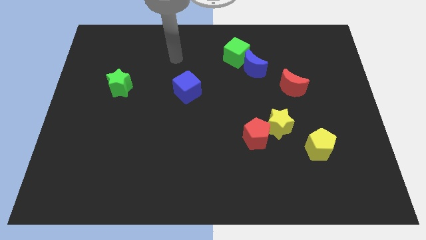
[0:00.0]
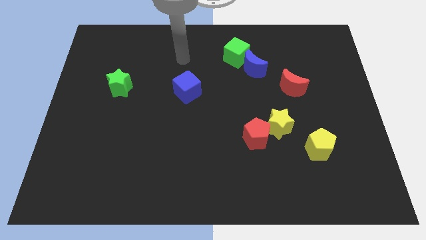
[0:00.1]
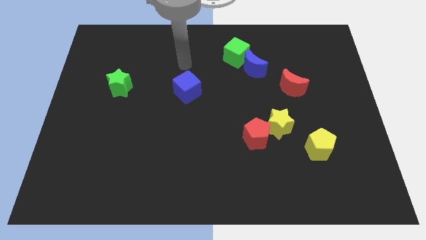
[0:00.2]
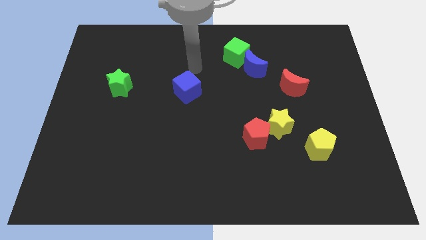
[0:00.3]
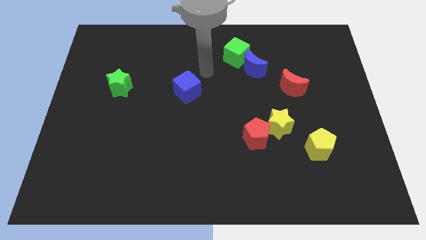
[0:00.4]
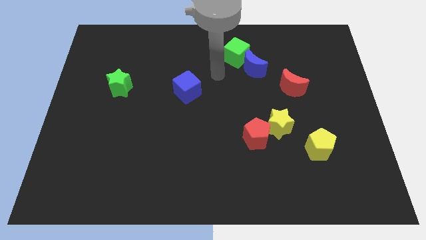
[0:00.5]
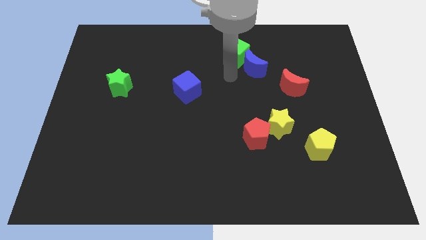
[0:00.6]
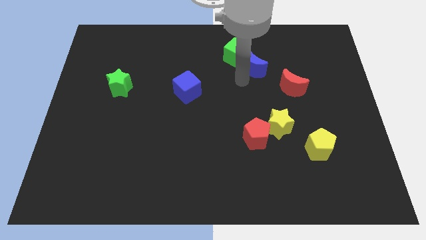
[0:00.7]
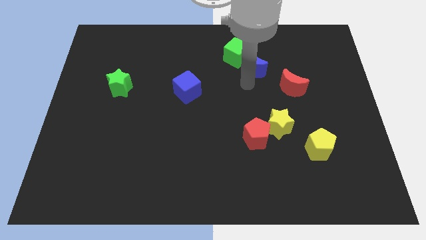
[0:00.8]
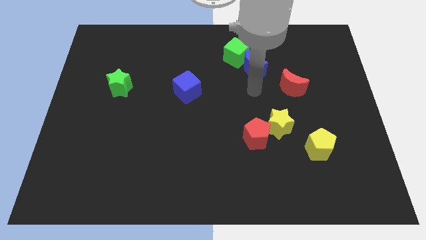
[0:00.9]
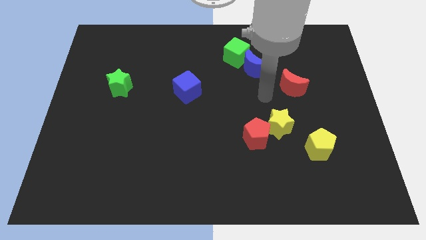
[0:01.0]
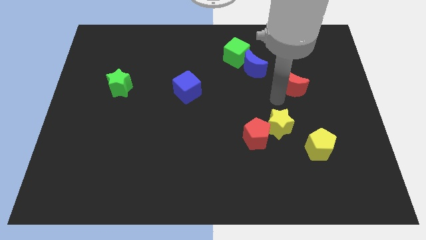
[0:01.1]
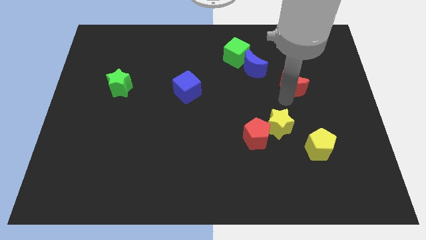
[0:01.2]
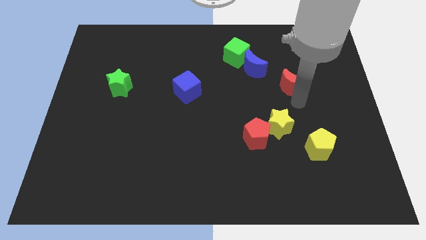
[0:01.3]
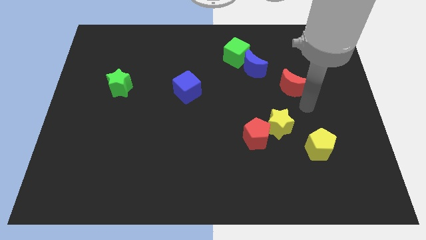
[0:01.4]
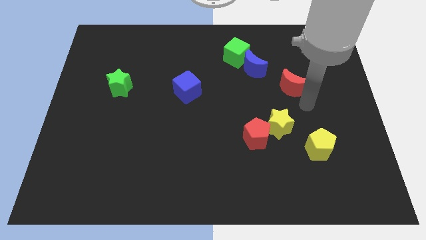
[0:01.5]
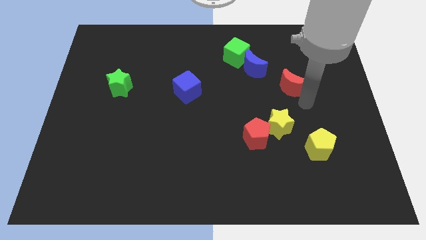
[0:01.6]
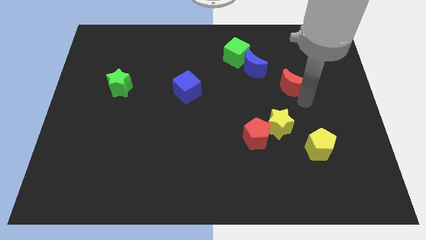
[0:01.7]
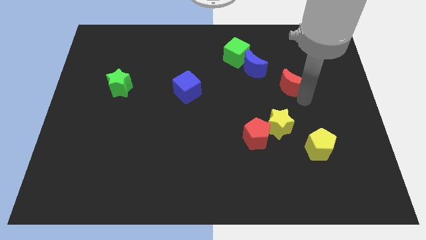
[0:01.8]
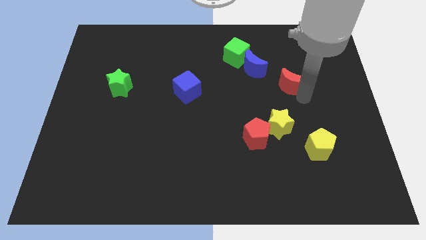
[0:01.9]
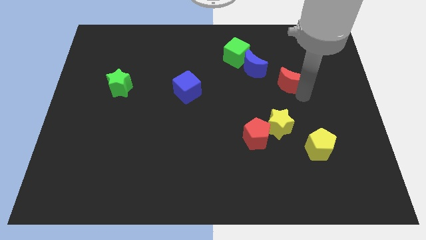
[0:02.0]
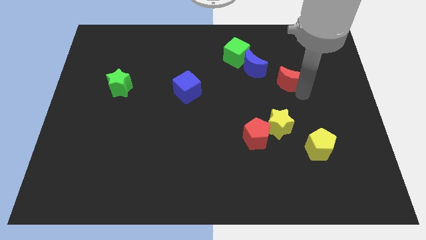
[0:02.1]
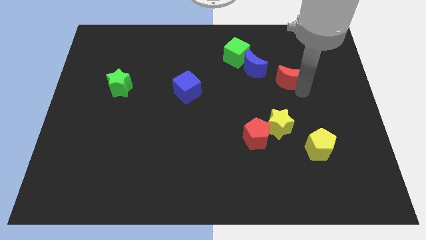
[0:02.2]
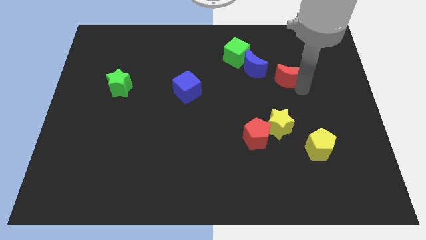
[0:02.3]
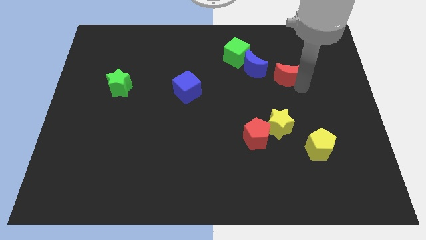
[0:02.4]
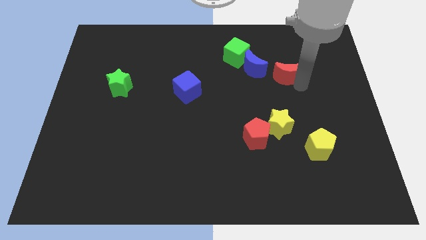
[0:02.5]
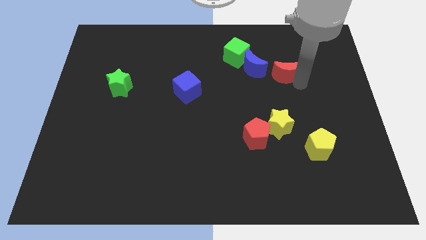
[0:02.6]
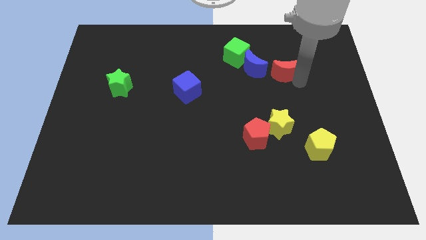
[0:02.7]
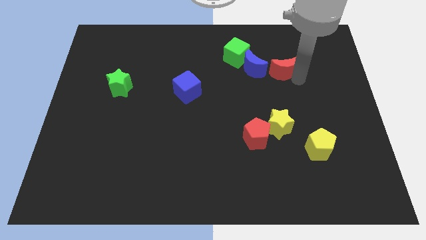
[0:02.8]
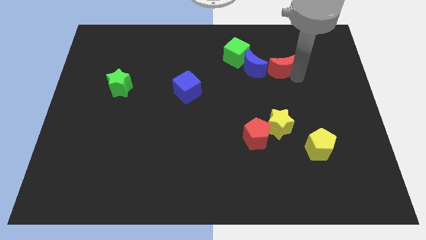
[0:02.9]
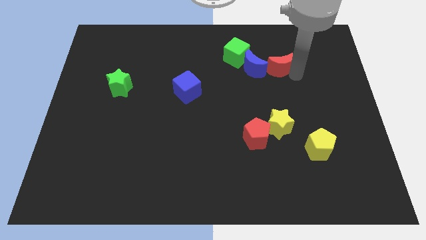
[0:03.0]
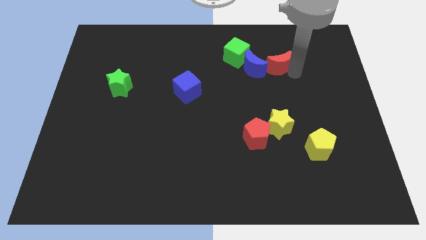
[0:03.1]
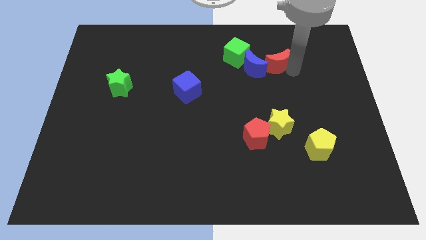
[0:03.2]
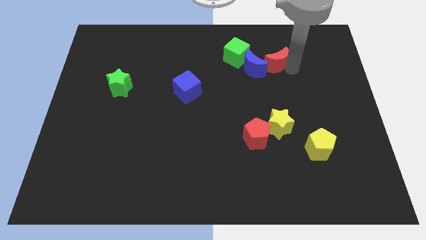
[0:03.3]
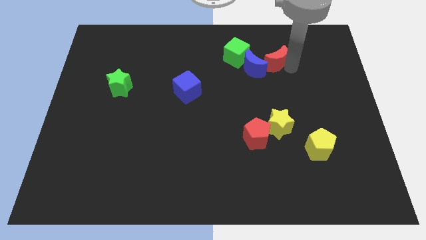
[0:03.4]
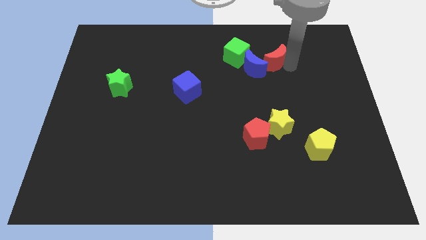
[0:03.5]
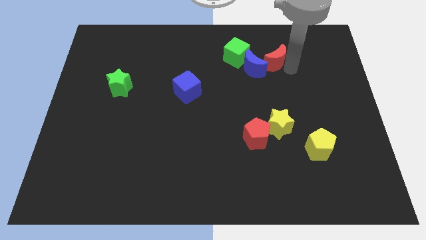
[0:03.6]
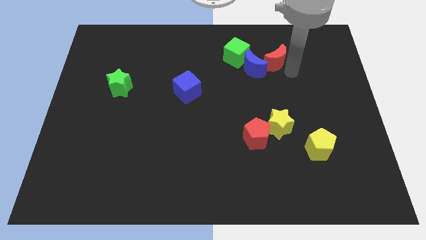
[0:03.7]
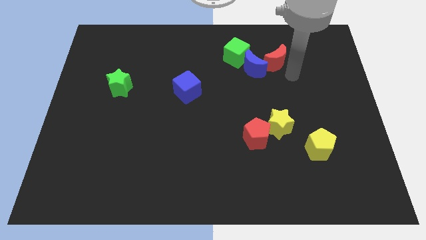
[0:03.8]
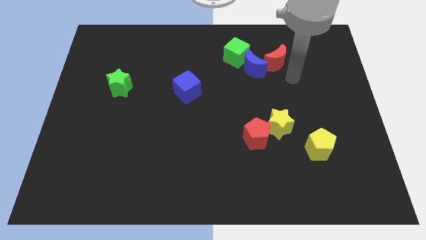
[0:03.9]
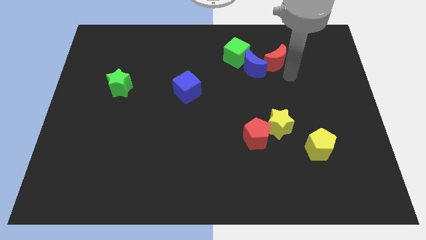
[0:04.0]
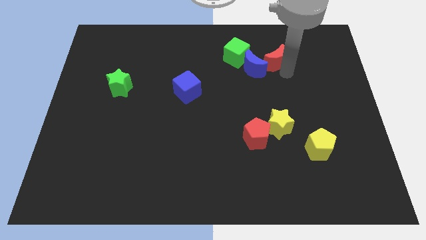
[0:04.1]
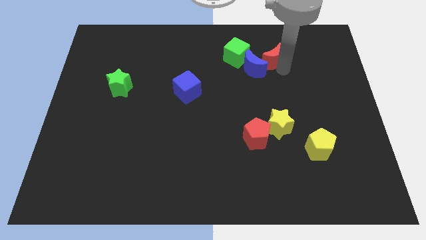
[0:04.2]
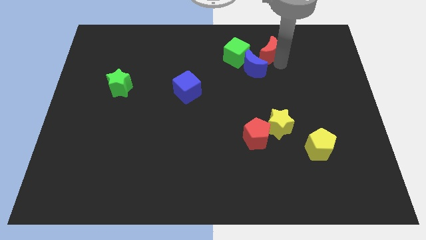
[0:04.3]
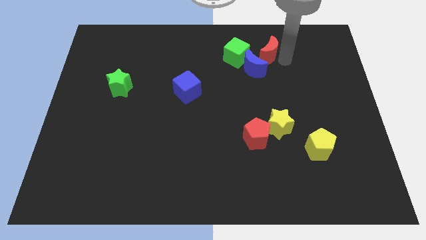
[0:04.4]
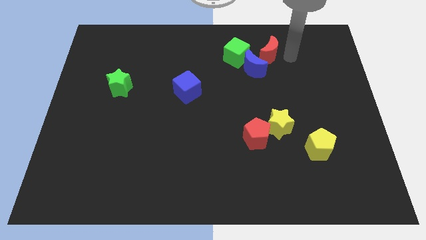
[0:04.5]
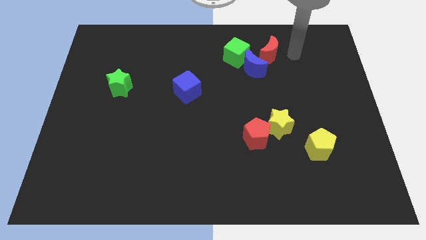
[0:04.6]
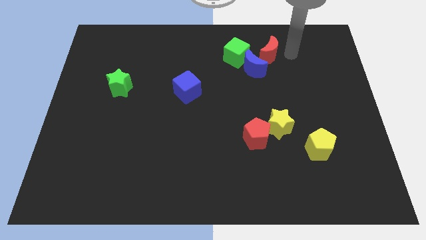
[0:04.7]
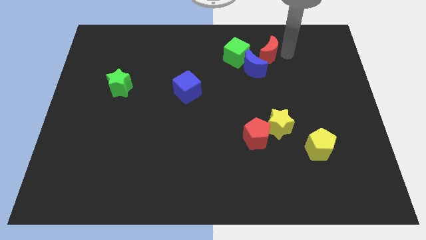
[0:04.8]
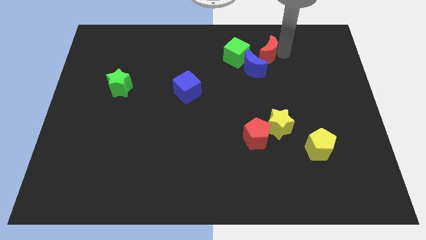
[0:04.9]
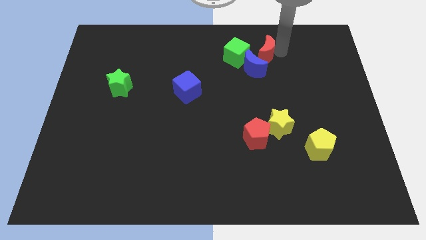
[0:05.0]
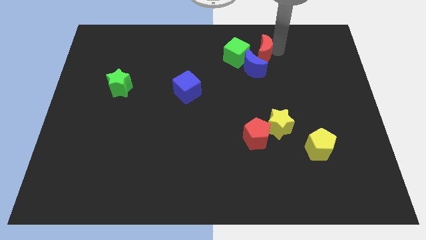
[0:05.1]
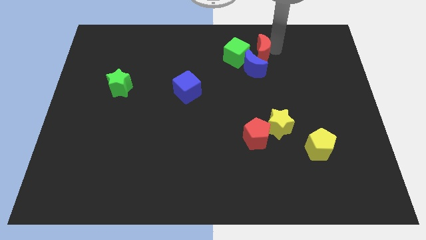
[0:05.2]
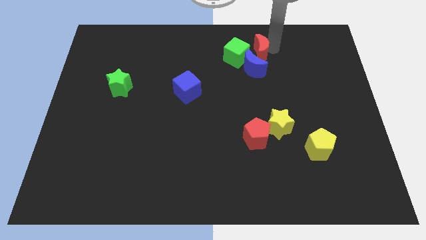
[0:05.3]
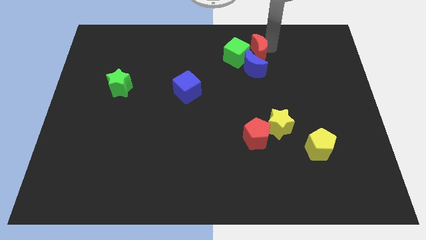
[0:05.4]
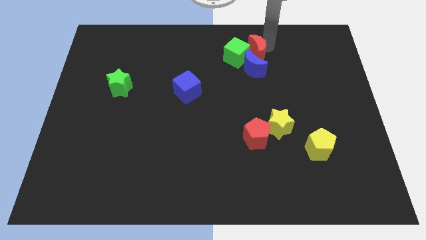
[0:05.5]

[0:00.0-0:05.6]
put the red moon close to the green cube

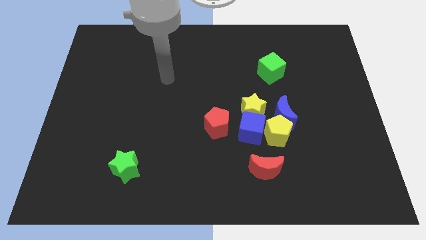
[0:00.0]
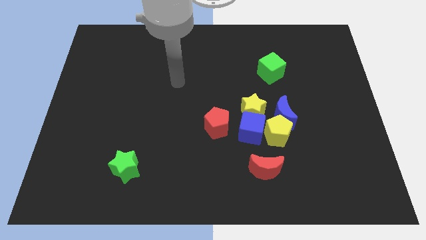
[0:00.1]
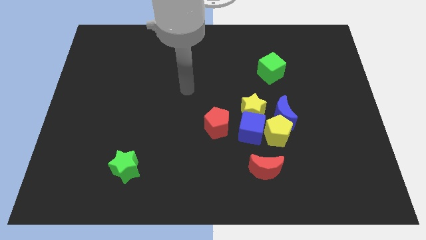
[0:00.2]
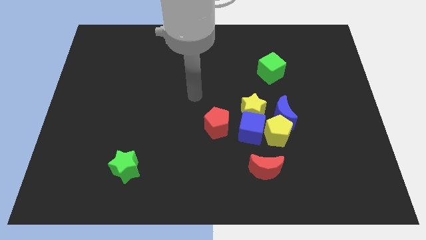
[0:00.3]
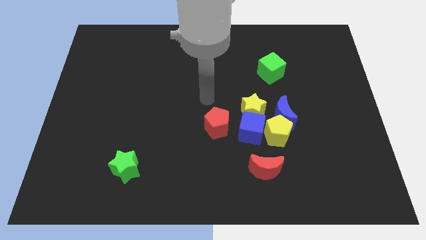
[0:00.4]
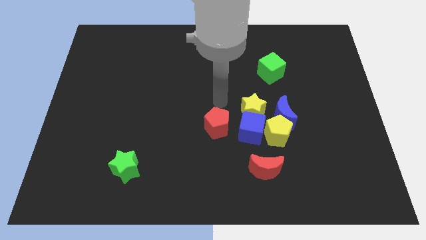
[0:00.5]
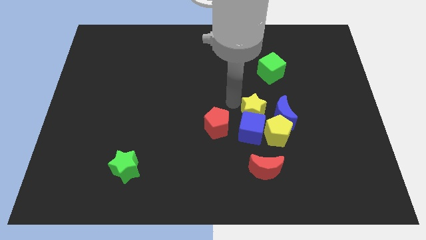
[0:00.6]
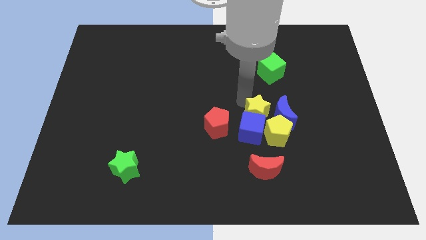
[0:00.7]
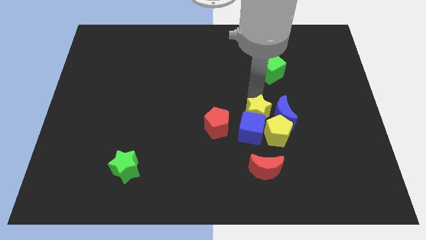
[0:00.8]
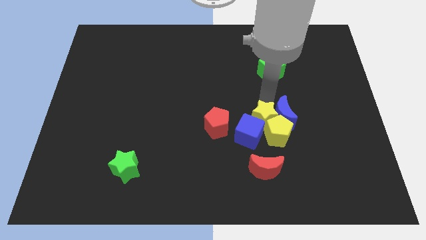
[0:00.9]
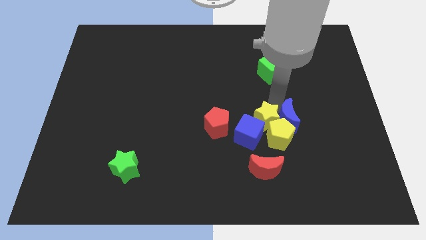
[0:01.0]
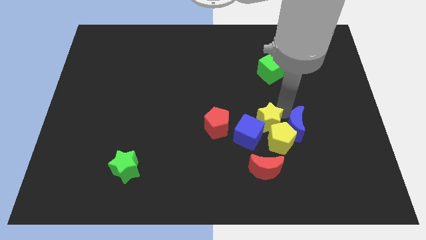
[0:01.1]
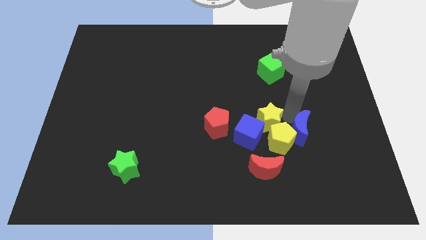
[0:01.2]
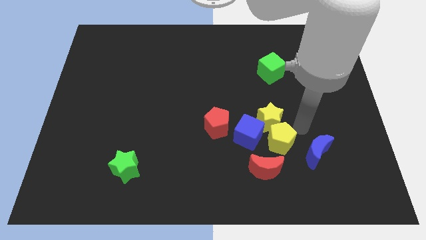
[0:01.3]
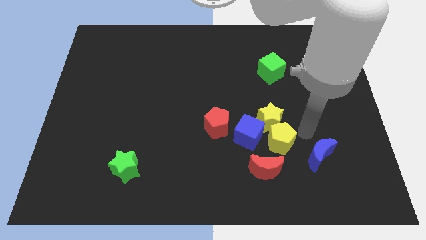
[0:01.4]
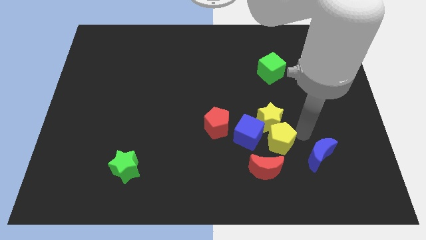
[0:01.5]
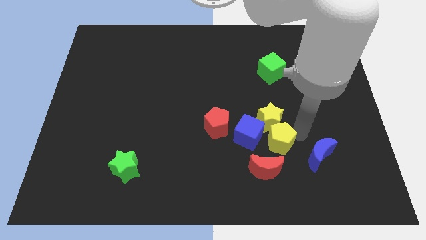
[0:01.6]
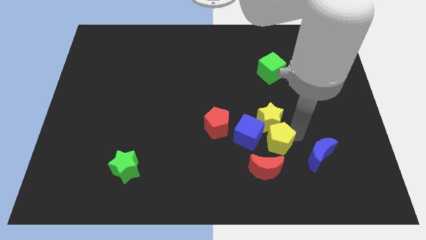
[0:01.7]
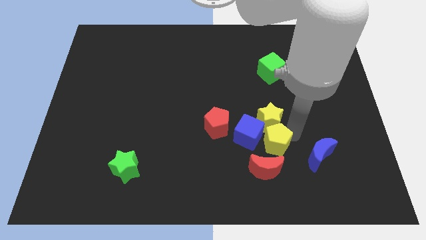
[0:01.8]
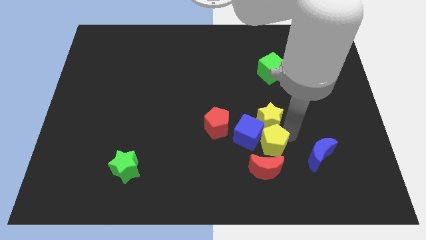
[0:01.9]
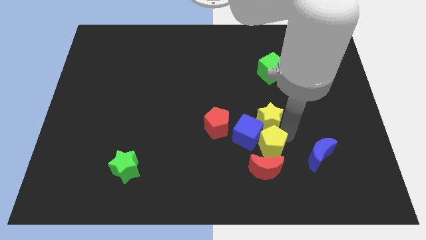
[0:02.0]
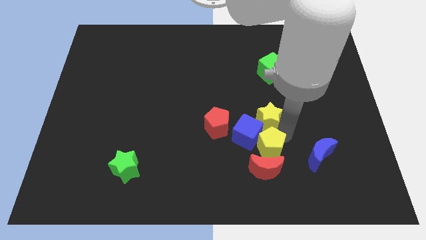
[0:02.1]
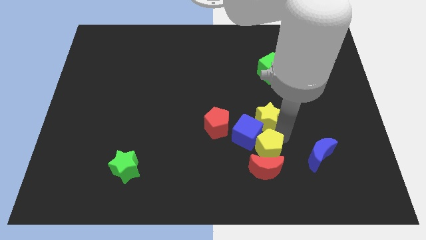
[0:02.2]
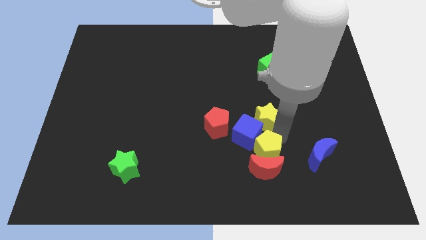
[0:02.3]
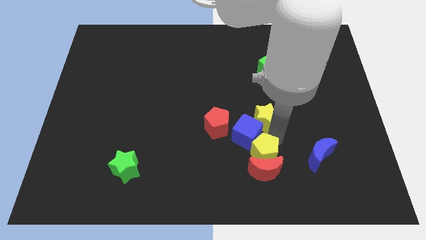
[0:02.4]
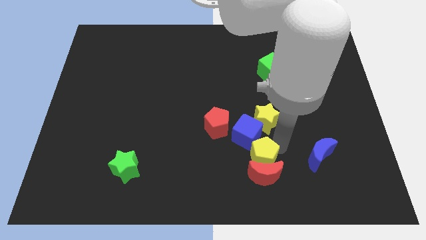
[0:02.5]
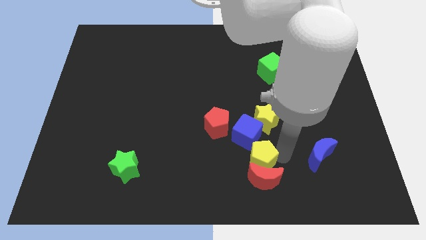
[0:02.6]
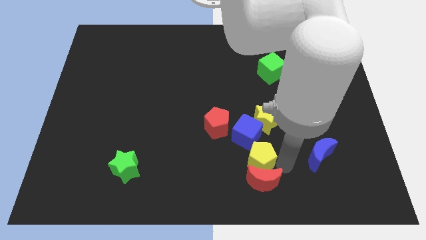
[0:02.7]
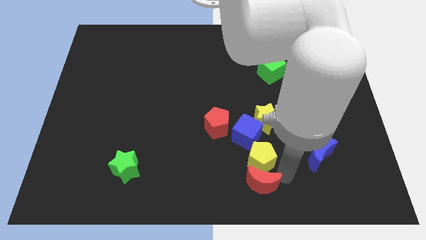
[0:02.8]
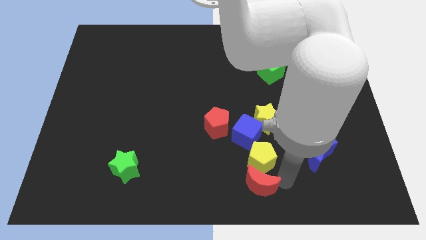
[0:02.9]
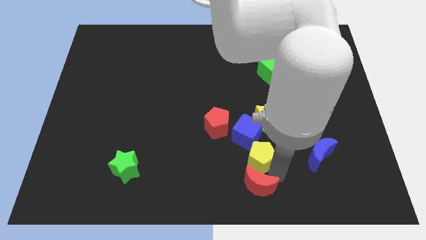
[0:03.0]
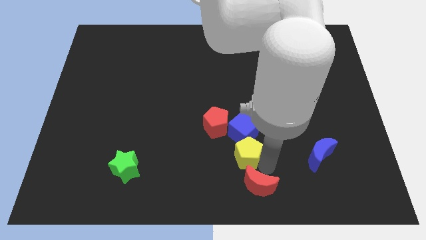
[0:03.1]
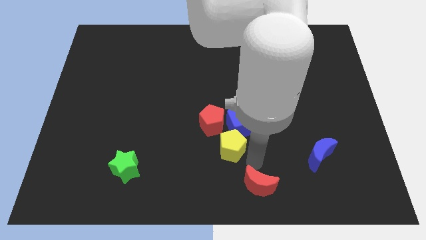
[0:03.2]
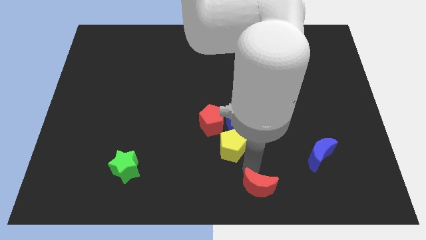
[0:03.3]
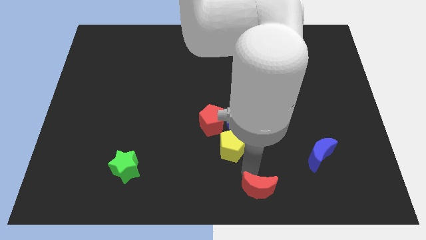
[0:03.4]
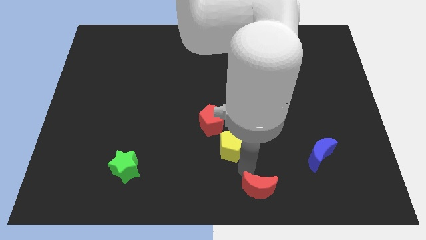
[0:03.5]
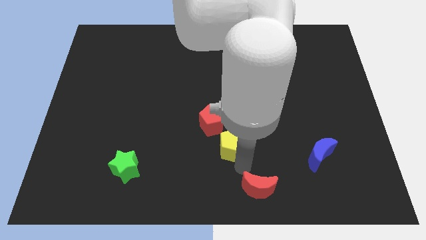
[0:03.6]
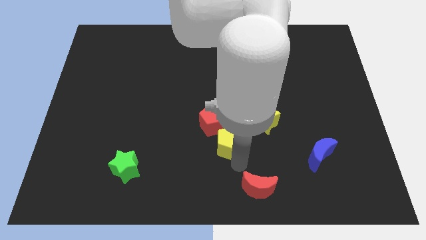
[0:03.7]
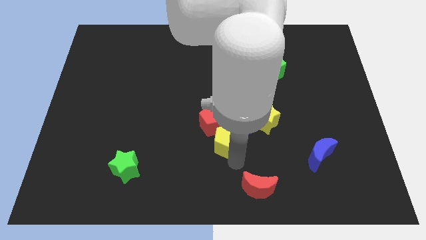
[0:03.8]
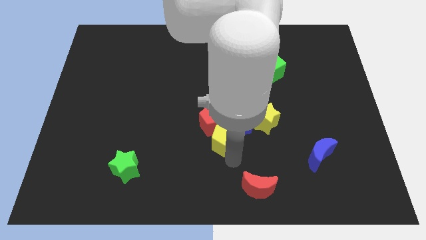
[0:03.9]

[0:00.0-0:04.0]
slide the yellow pentagon to the red pentagon
